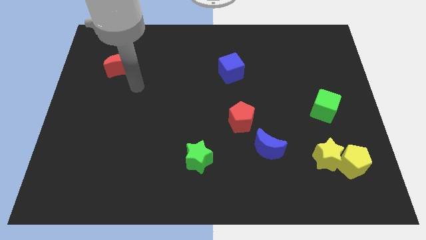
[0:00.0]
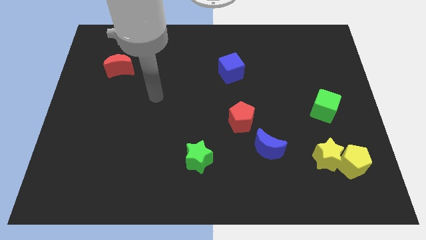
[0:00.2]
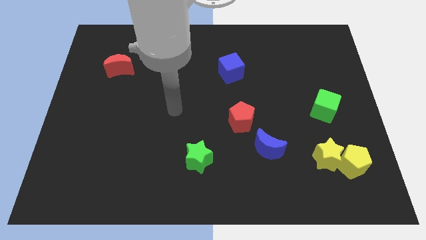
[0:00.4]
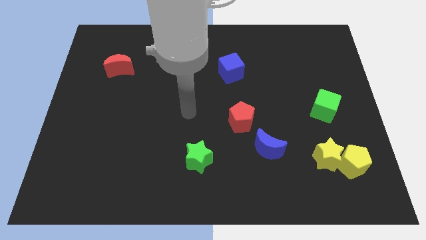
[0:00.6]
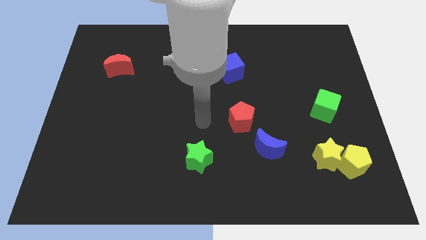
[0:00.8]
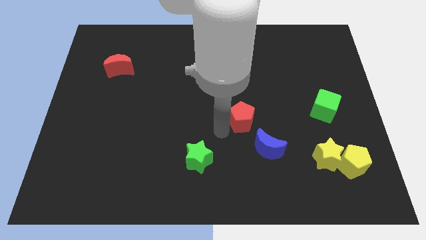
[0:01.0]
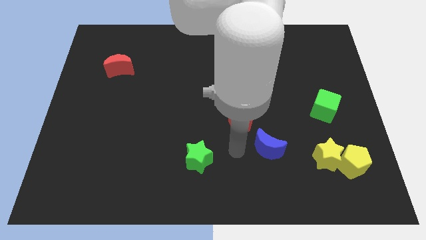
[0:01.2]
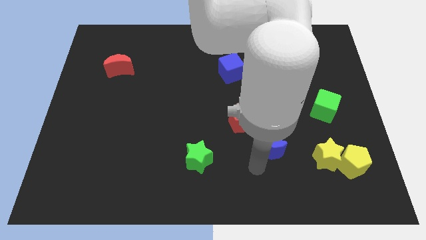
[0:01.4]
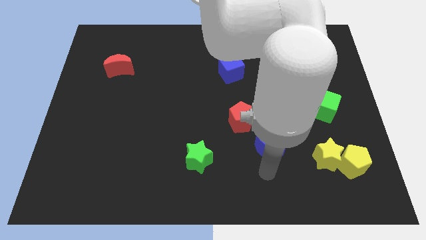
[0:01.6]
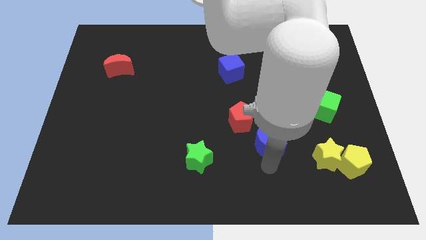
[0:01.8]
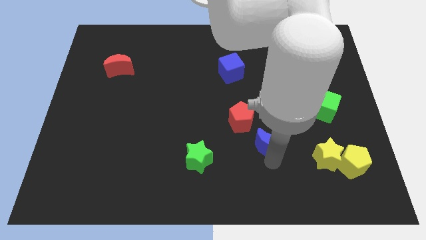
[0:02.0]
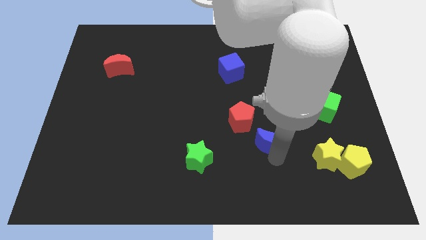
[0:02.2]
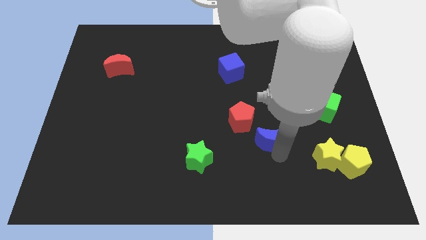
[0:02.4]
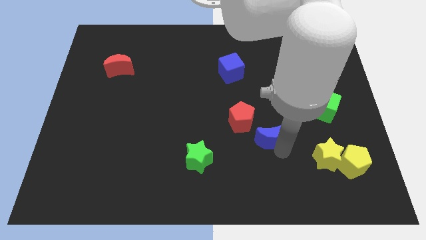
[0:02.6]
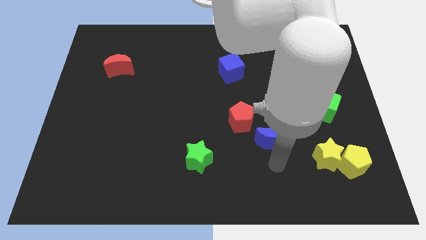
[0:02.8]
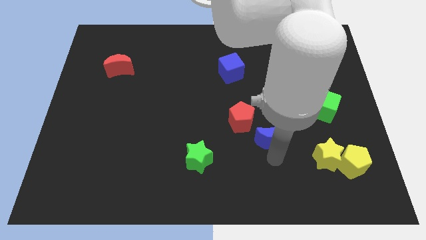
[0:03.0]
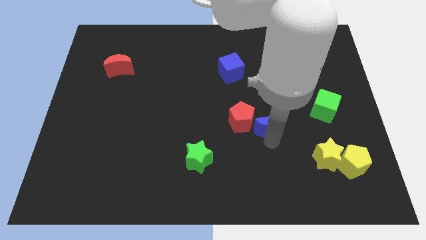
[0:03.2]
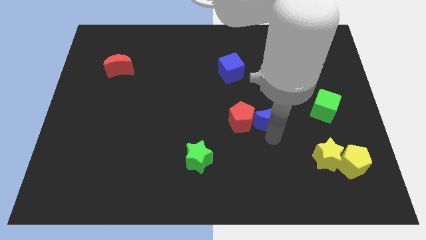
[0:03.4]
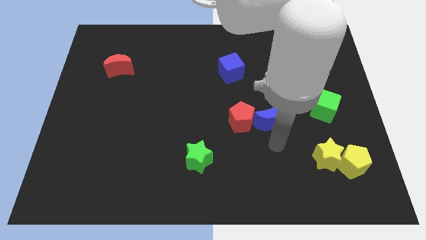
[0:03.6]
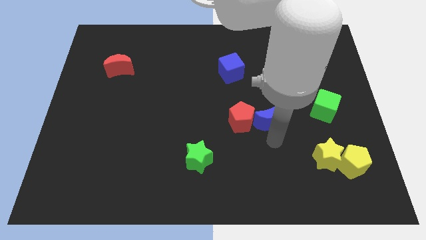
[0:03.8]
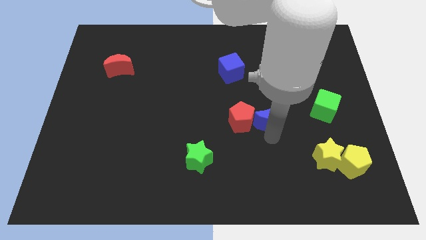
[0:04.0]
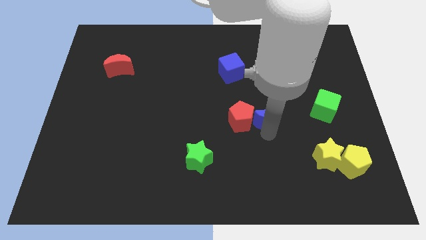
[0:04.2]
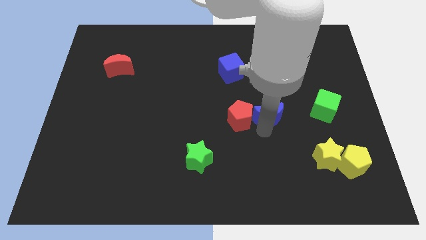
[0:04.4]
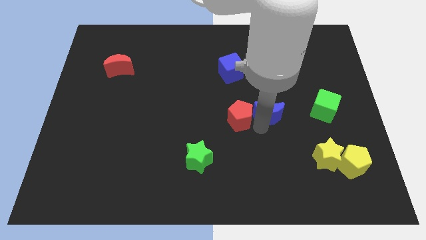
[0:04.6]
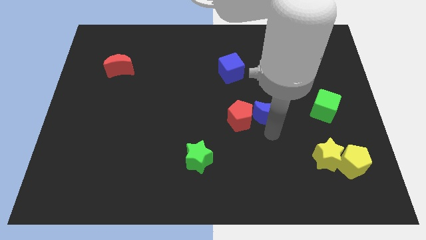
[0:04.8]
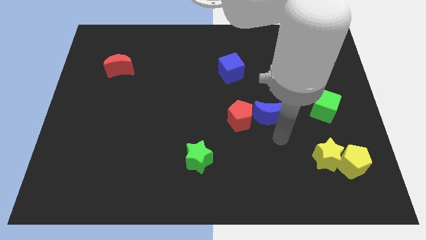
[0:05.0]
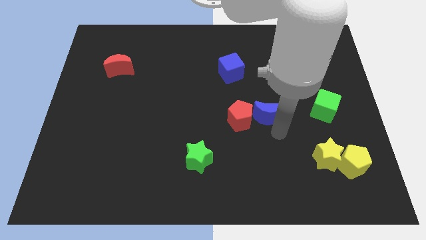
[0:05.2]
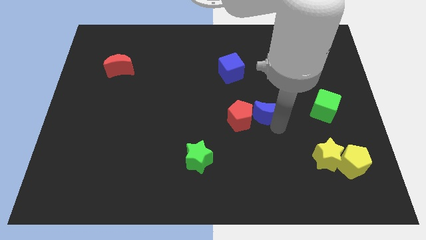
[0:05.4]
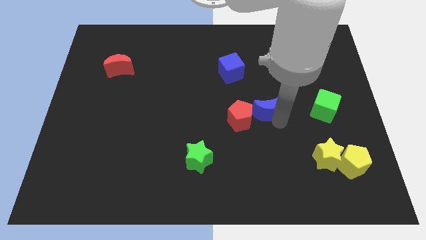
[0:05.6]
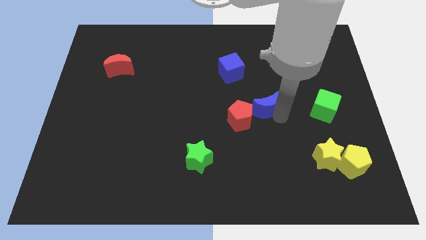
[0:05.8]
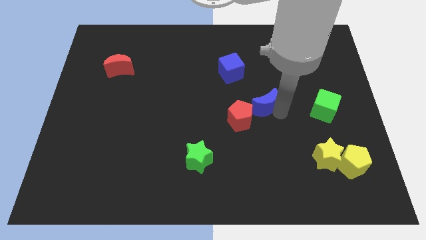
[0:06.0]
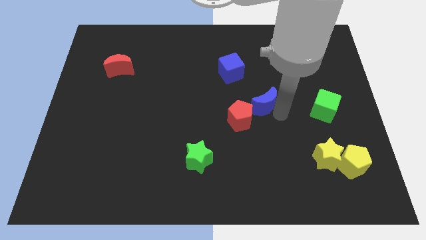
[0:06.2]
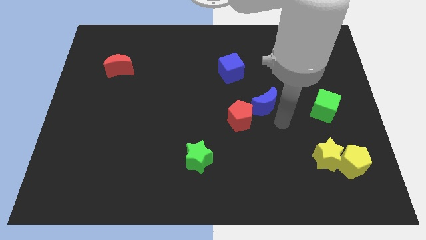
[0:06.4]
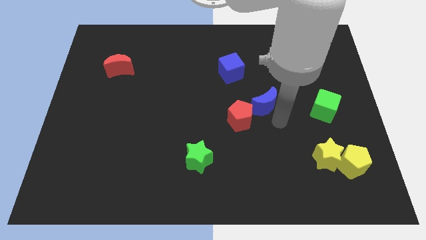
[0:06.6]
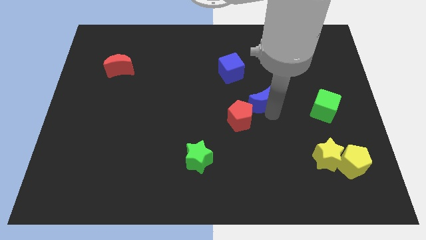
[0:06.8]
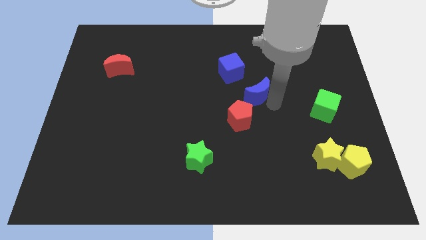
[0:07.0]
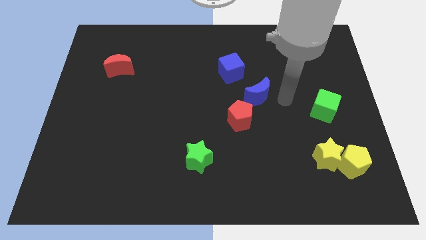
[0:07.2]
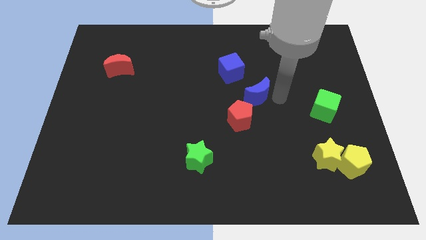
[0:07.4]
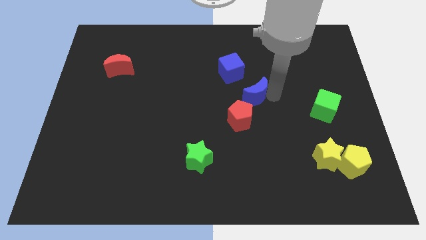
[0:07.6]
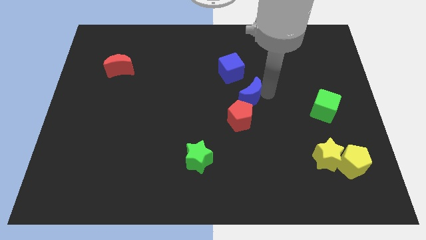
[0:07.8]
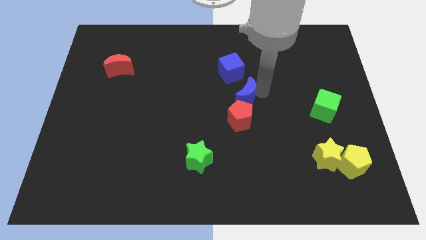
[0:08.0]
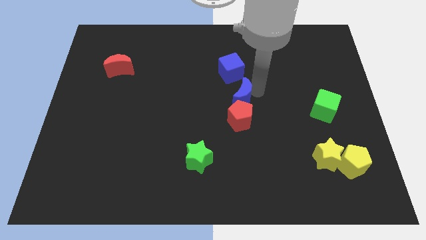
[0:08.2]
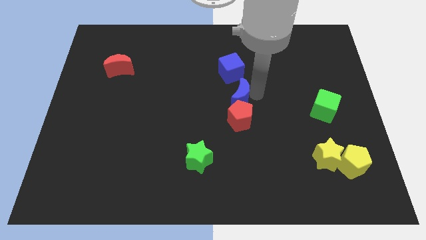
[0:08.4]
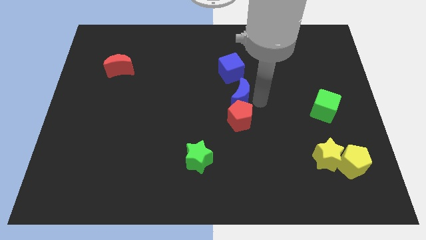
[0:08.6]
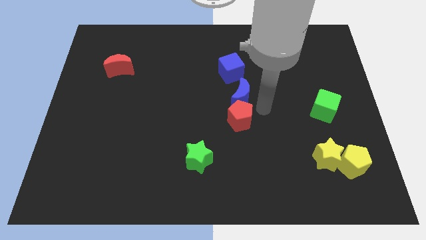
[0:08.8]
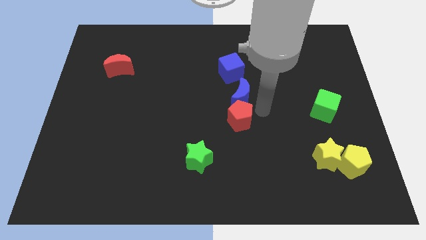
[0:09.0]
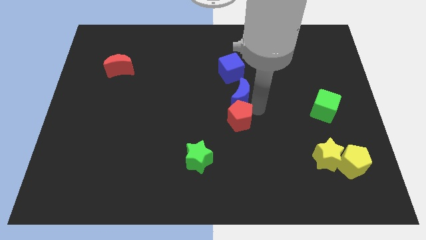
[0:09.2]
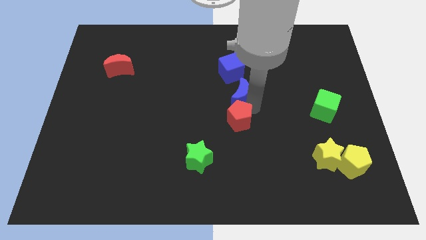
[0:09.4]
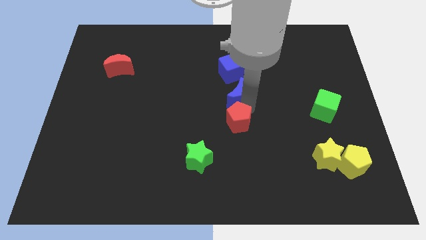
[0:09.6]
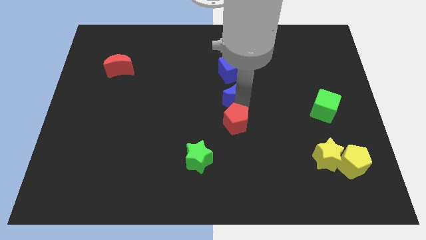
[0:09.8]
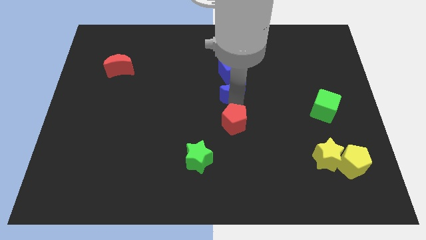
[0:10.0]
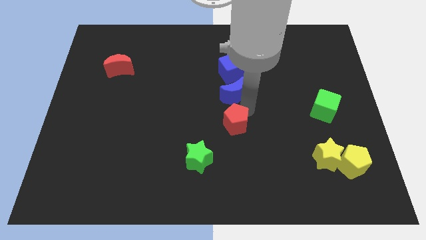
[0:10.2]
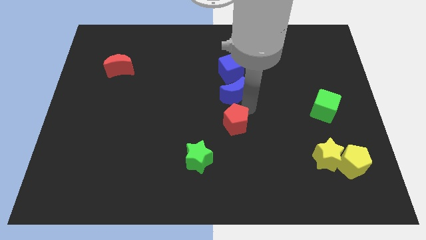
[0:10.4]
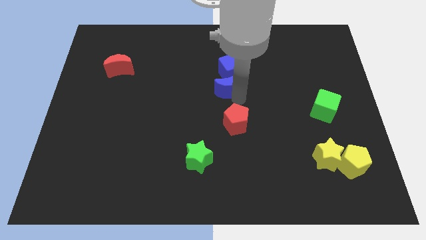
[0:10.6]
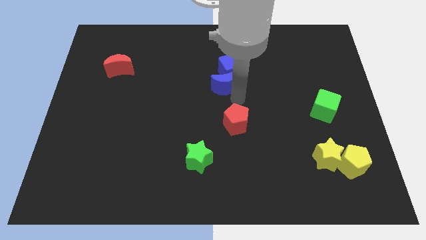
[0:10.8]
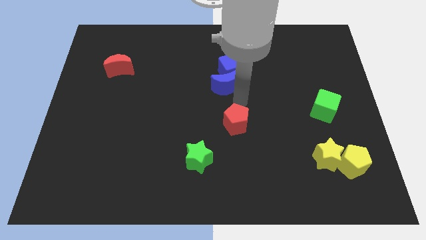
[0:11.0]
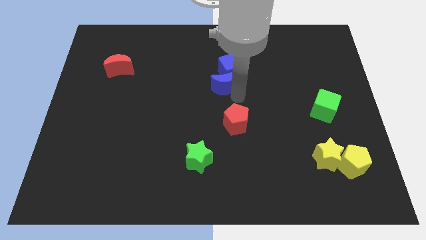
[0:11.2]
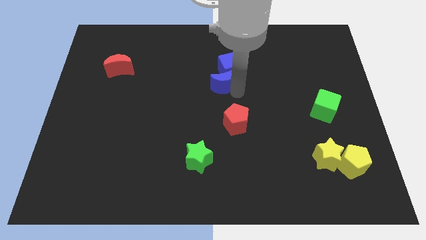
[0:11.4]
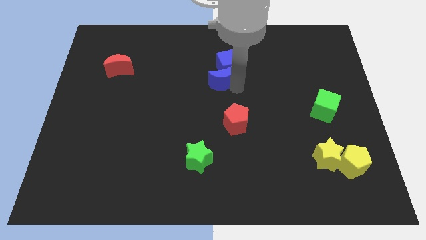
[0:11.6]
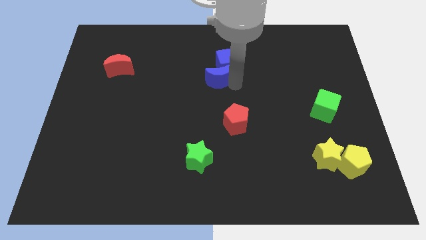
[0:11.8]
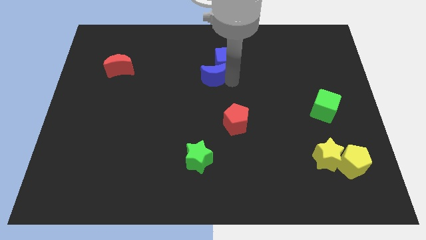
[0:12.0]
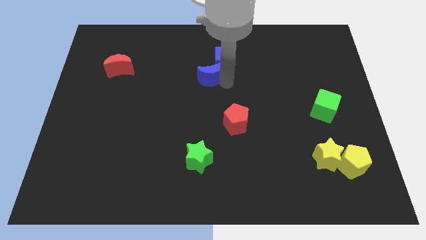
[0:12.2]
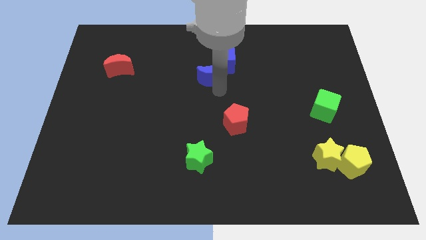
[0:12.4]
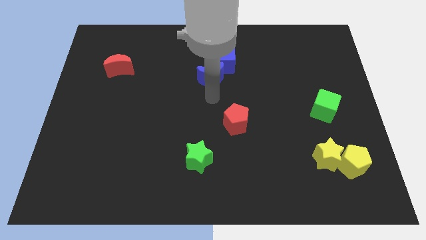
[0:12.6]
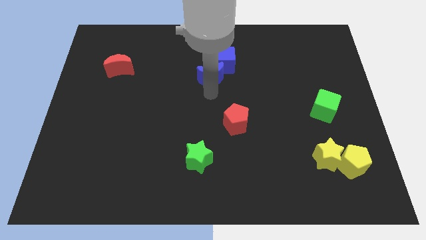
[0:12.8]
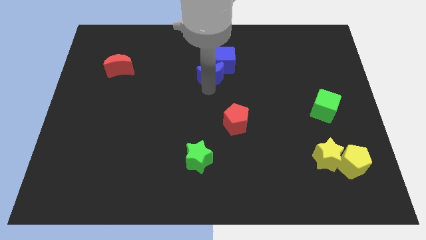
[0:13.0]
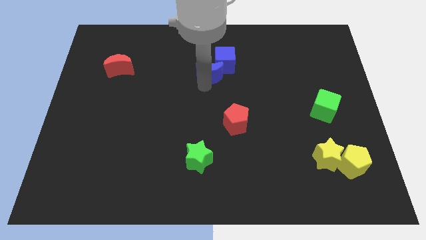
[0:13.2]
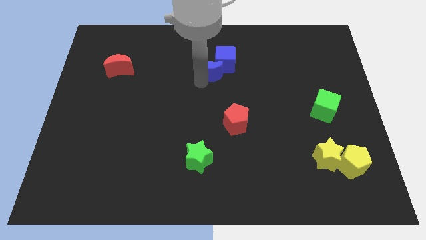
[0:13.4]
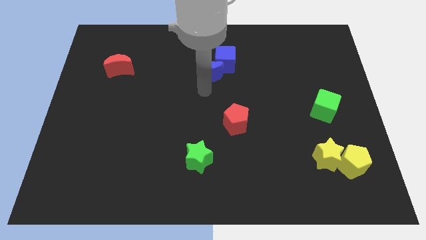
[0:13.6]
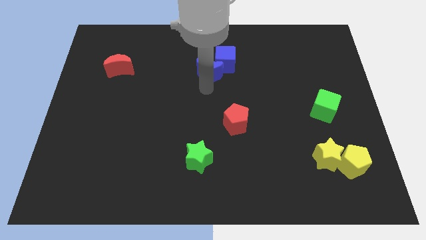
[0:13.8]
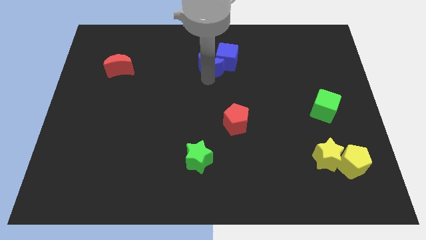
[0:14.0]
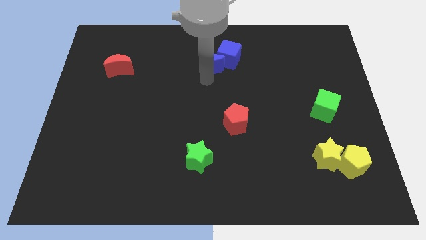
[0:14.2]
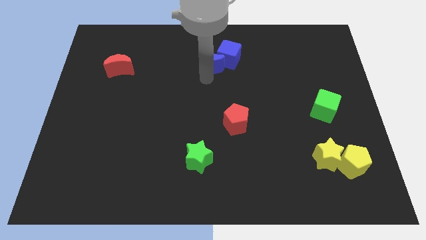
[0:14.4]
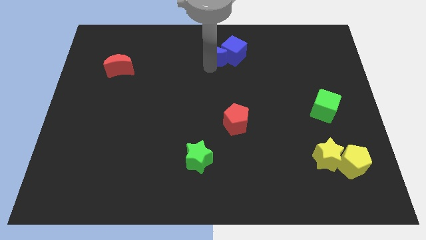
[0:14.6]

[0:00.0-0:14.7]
move the blue moon to the top
